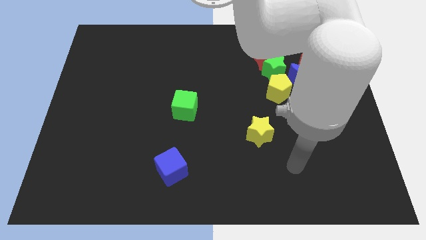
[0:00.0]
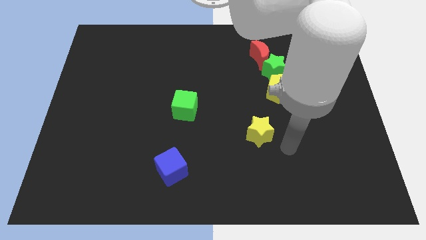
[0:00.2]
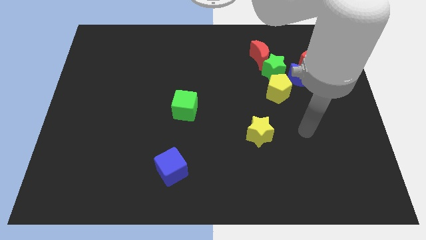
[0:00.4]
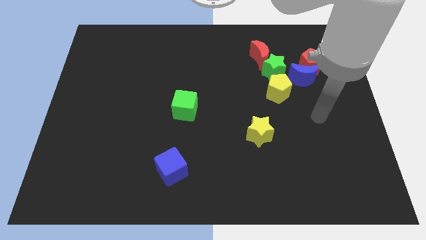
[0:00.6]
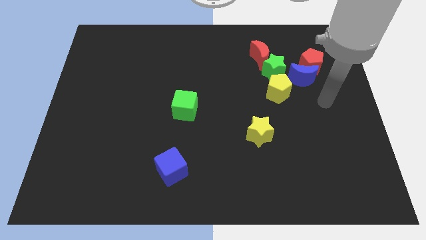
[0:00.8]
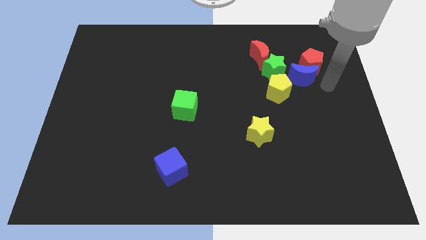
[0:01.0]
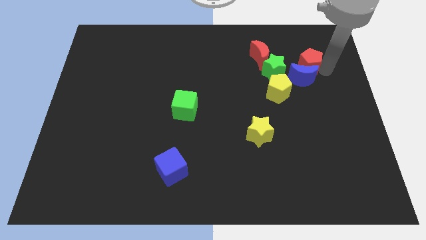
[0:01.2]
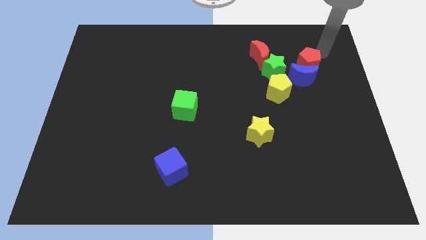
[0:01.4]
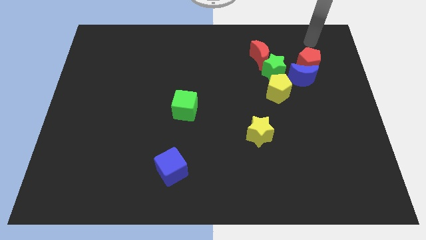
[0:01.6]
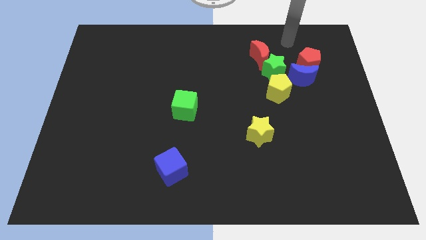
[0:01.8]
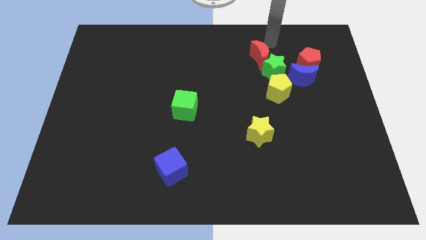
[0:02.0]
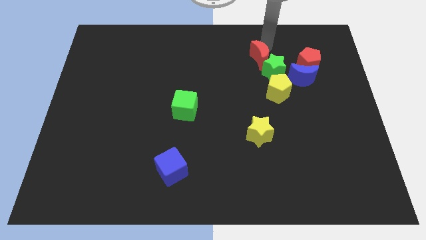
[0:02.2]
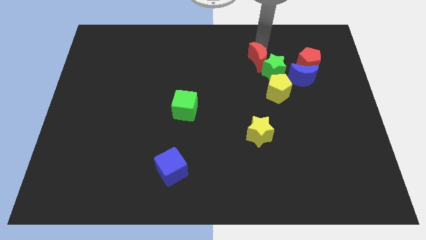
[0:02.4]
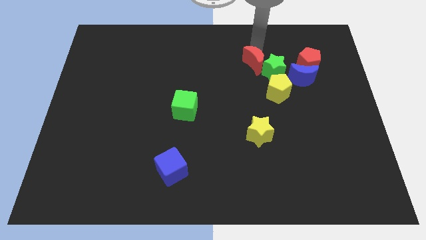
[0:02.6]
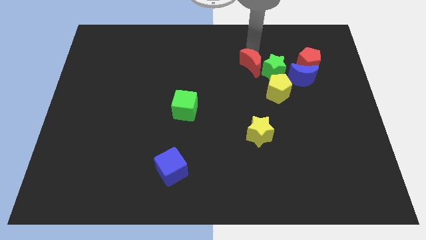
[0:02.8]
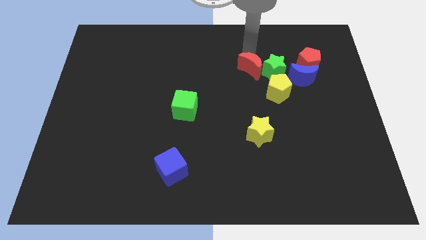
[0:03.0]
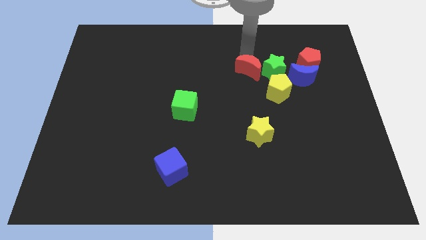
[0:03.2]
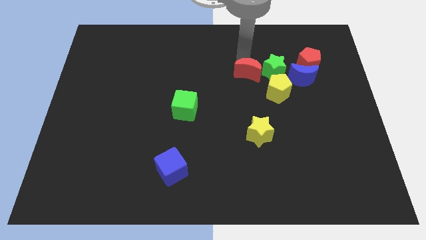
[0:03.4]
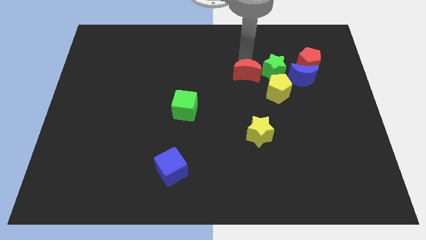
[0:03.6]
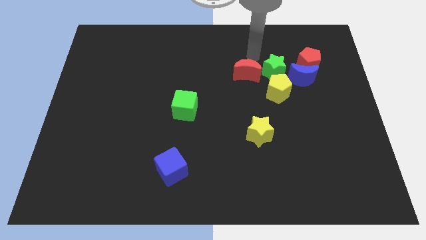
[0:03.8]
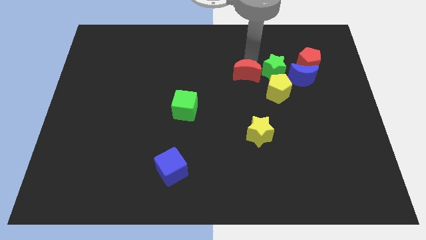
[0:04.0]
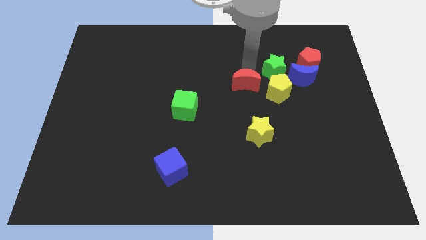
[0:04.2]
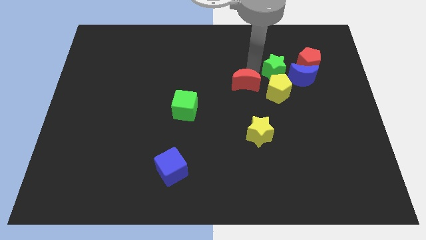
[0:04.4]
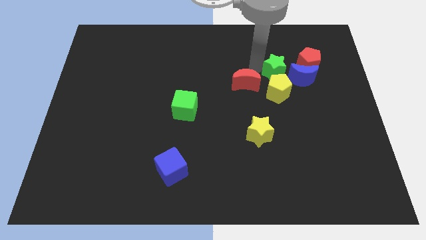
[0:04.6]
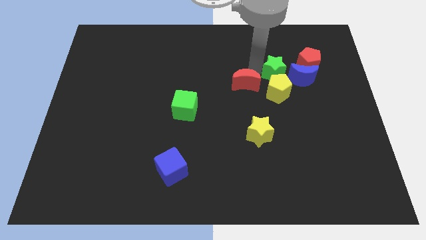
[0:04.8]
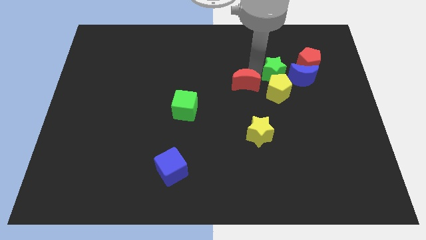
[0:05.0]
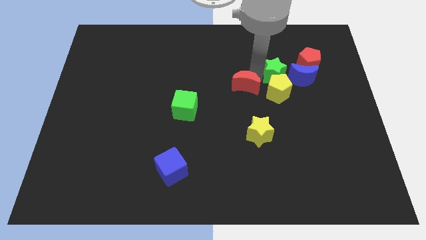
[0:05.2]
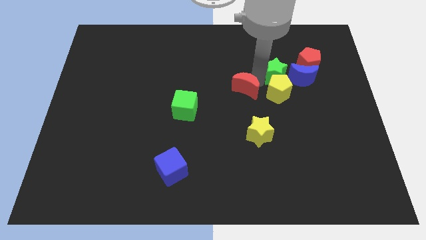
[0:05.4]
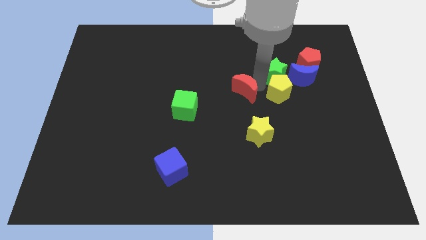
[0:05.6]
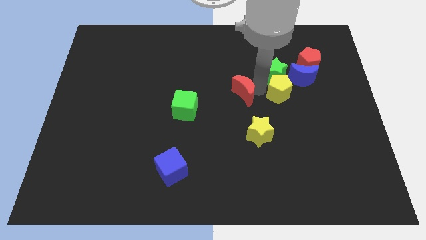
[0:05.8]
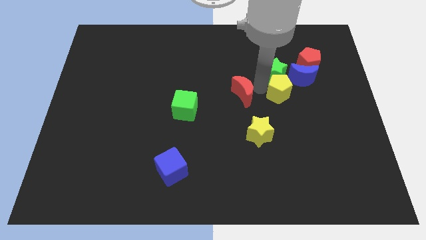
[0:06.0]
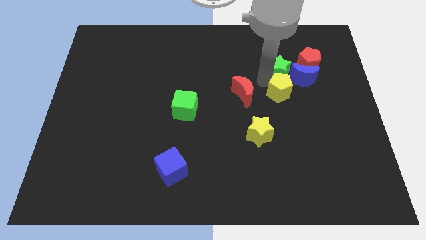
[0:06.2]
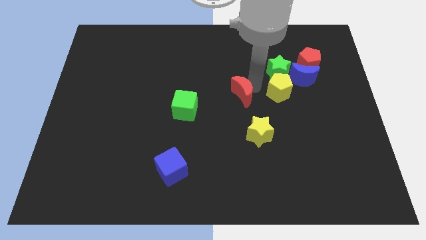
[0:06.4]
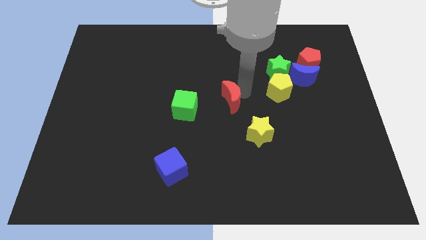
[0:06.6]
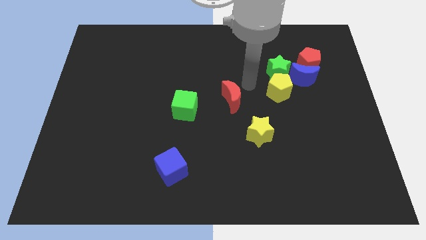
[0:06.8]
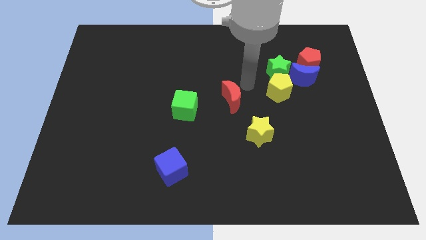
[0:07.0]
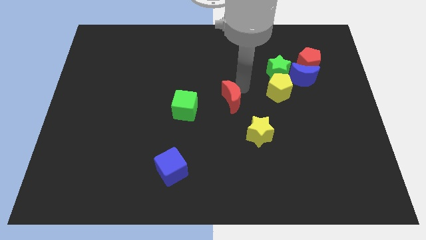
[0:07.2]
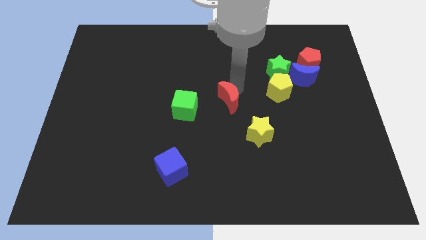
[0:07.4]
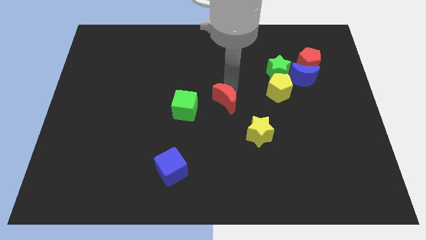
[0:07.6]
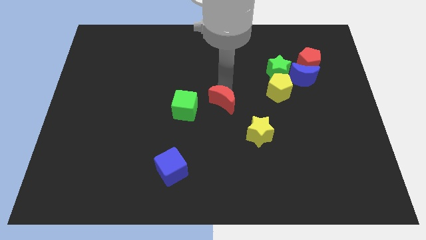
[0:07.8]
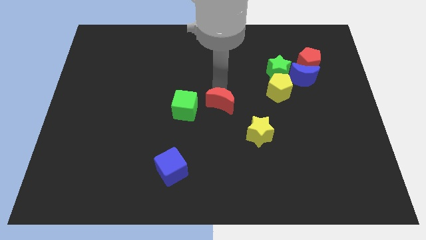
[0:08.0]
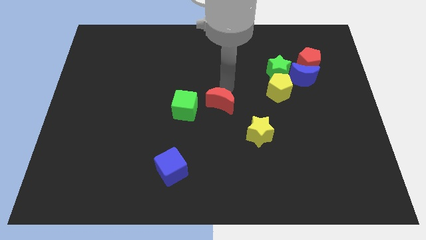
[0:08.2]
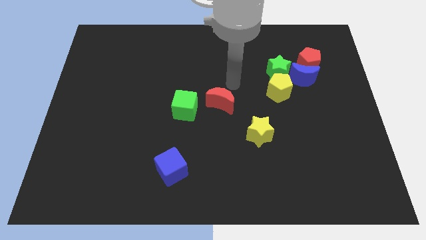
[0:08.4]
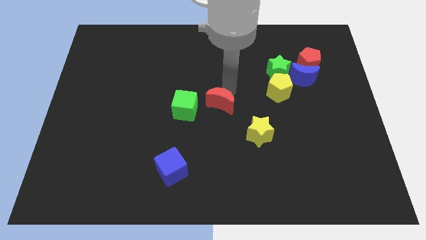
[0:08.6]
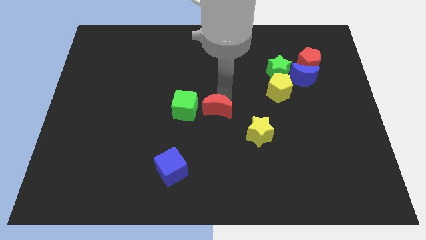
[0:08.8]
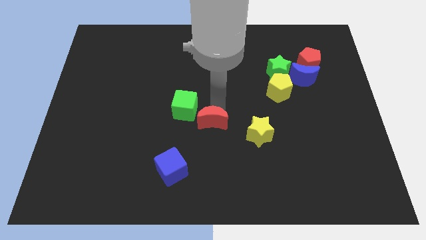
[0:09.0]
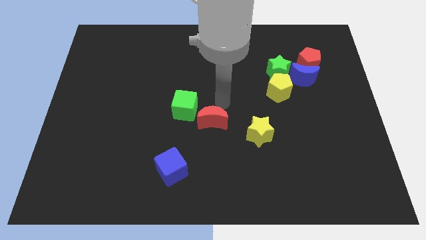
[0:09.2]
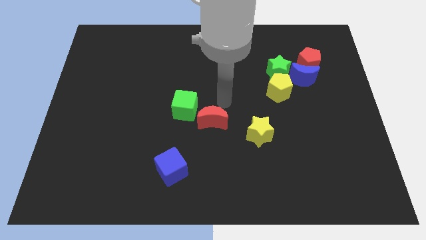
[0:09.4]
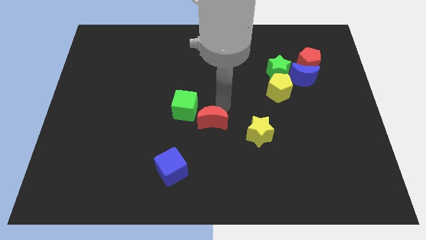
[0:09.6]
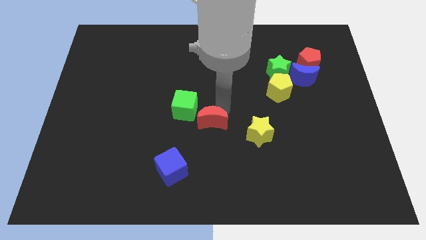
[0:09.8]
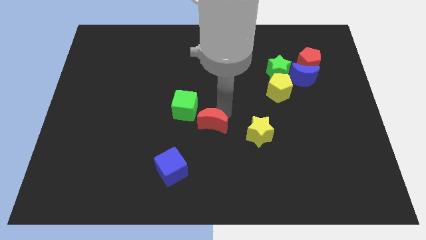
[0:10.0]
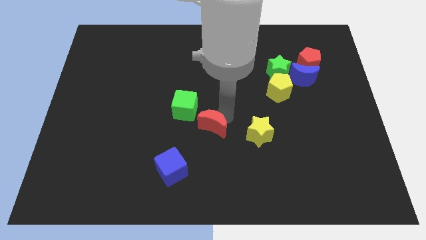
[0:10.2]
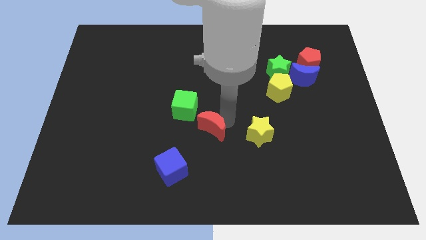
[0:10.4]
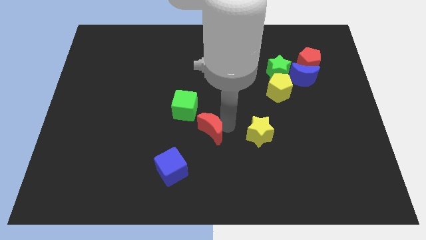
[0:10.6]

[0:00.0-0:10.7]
push the red moon to the top right of the blue cube

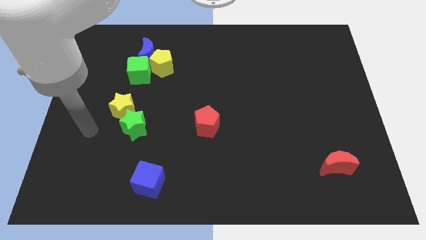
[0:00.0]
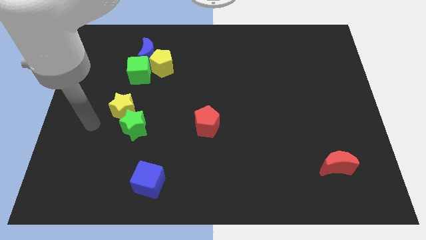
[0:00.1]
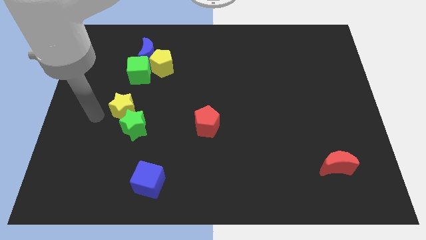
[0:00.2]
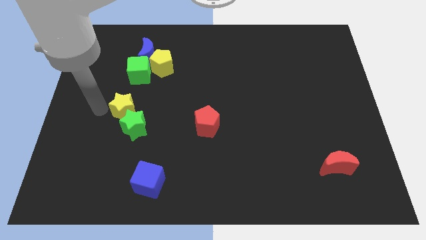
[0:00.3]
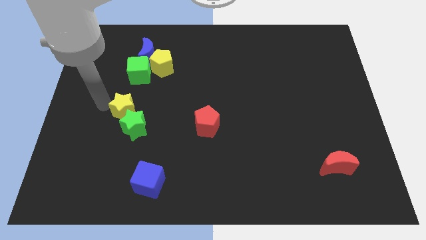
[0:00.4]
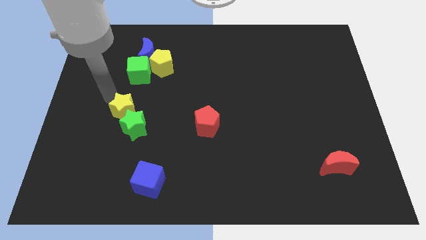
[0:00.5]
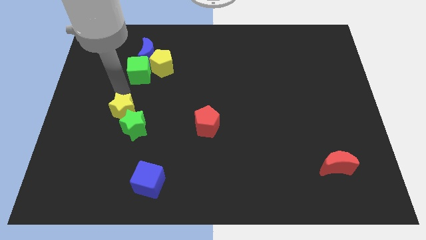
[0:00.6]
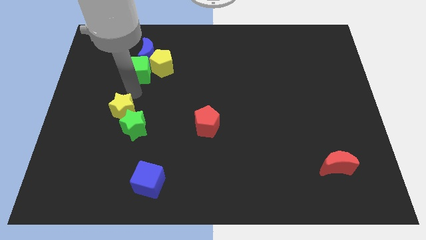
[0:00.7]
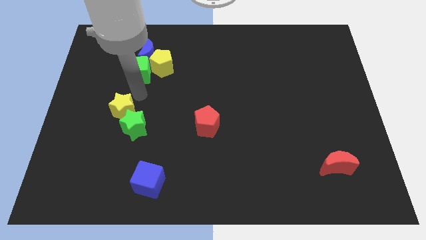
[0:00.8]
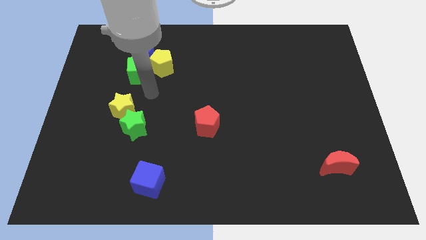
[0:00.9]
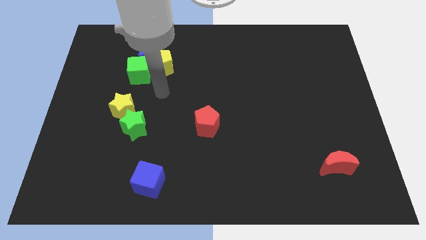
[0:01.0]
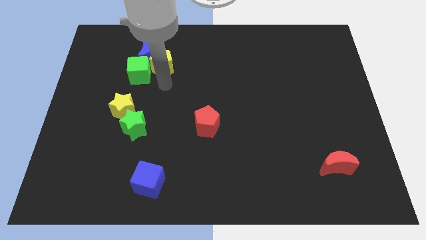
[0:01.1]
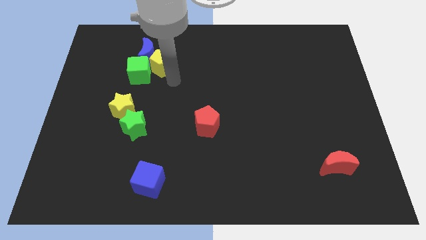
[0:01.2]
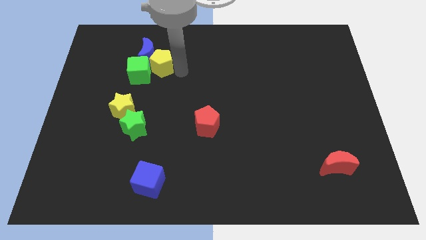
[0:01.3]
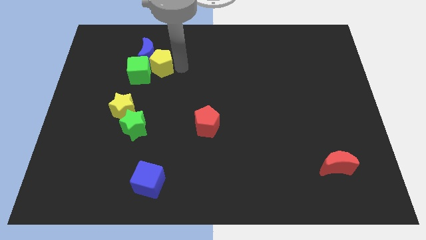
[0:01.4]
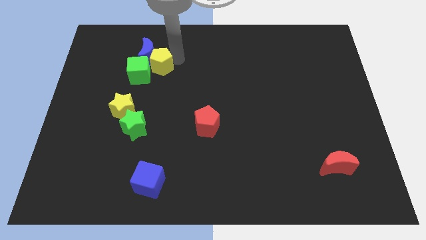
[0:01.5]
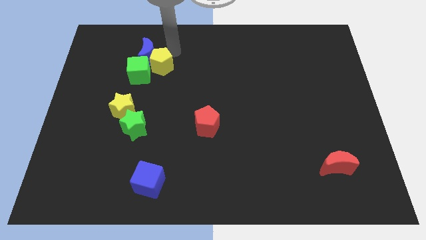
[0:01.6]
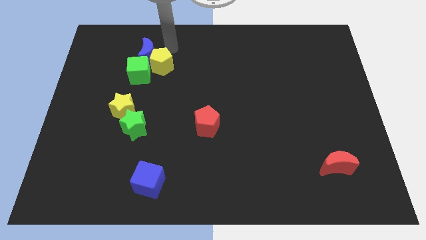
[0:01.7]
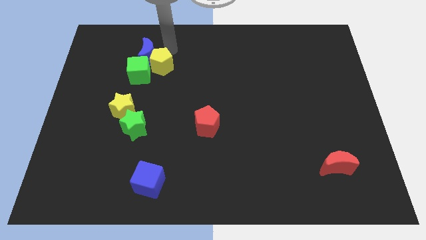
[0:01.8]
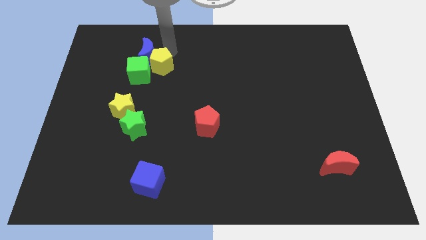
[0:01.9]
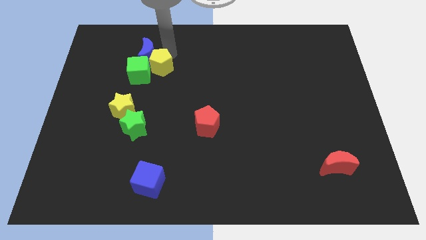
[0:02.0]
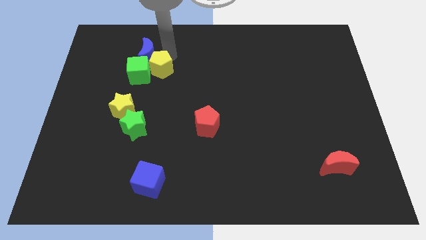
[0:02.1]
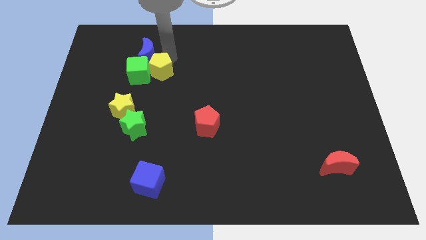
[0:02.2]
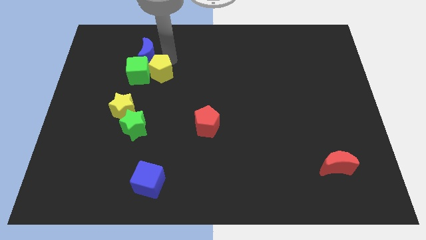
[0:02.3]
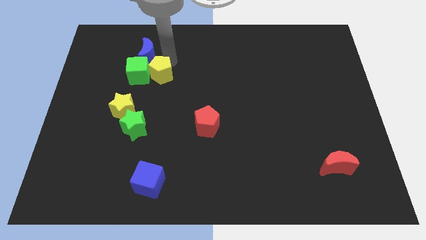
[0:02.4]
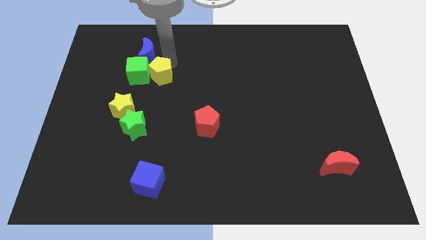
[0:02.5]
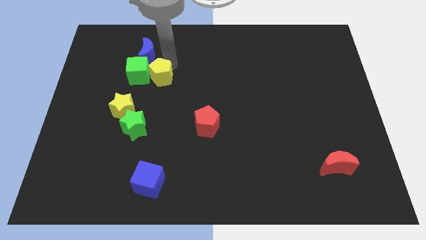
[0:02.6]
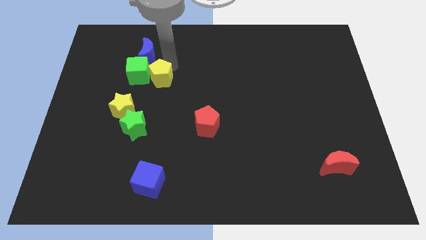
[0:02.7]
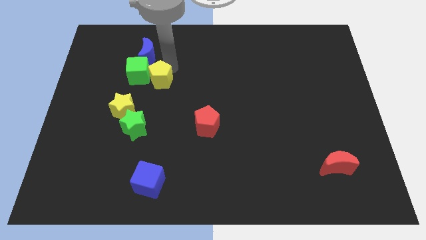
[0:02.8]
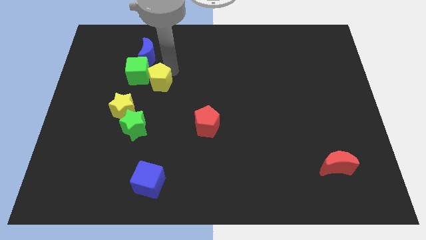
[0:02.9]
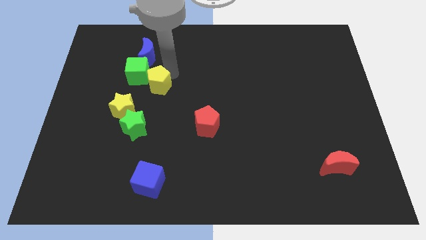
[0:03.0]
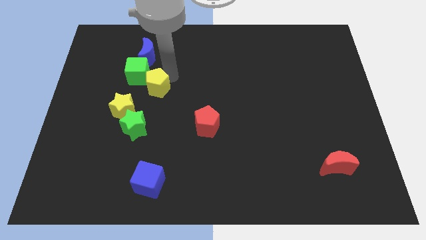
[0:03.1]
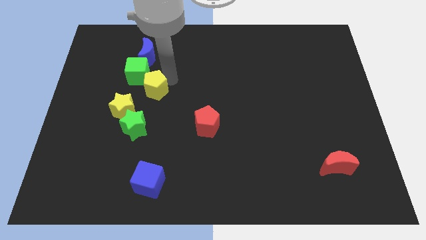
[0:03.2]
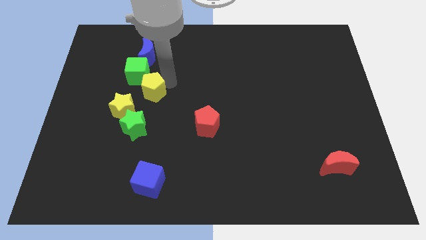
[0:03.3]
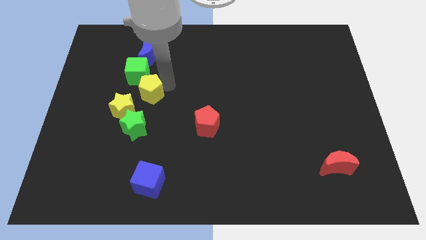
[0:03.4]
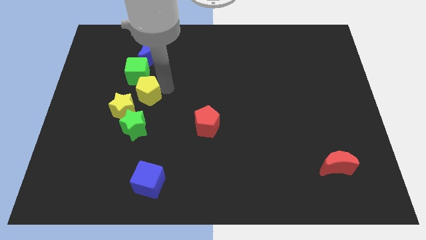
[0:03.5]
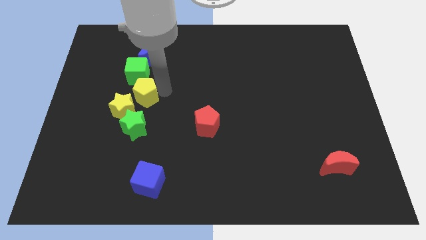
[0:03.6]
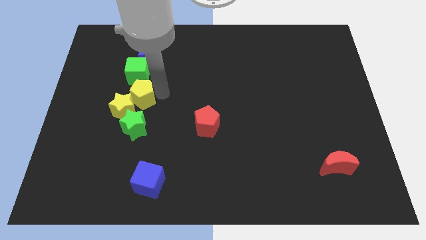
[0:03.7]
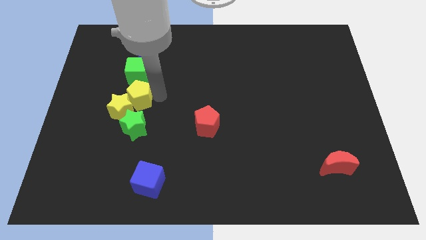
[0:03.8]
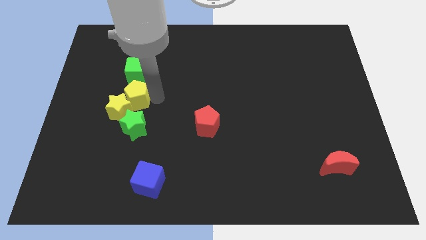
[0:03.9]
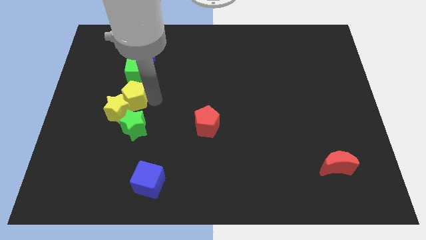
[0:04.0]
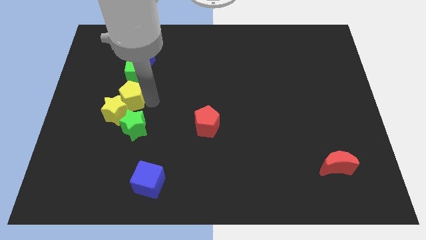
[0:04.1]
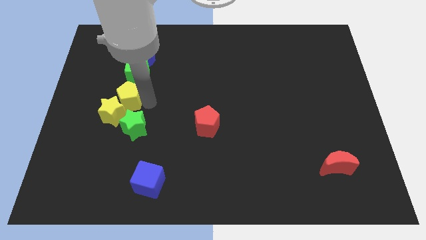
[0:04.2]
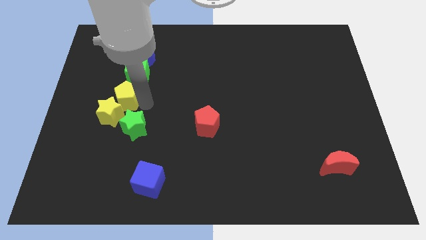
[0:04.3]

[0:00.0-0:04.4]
move the yellow pentagon to the bottom left side of the green cube
